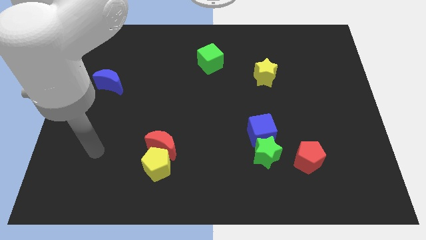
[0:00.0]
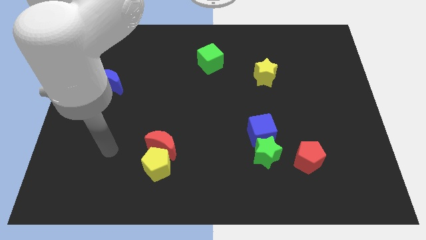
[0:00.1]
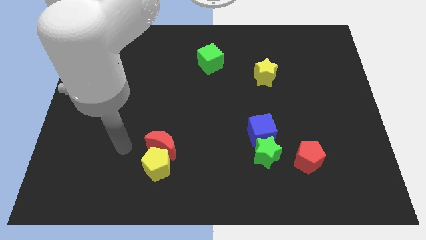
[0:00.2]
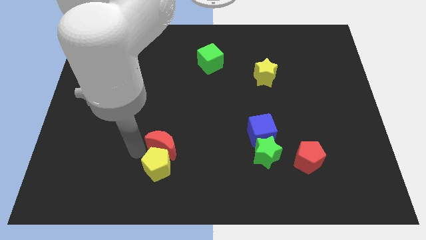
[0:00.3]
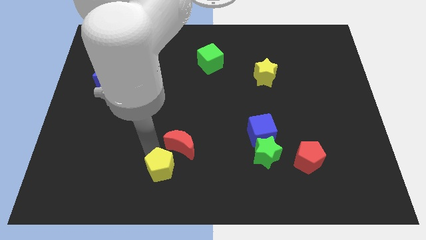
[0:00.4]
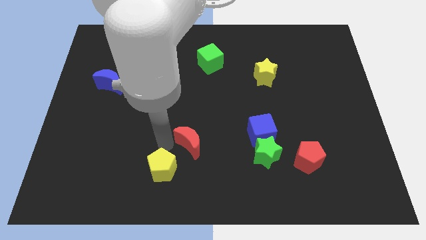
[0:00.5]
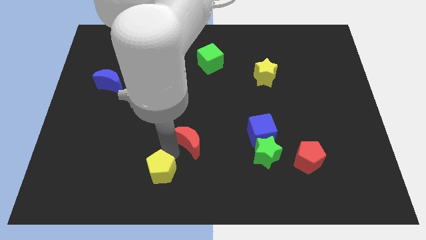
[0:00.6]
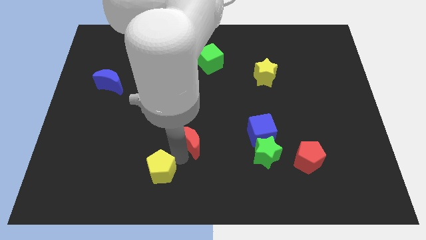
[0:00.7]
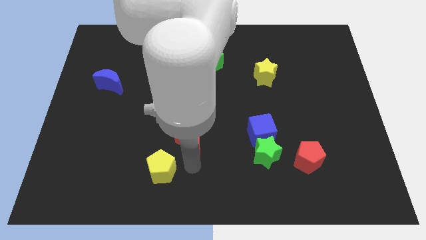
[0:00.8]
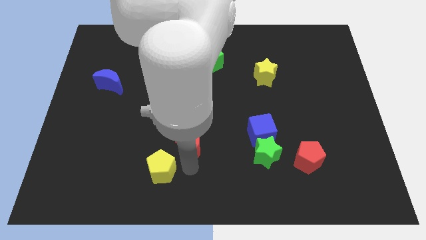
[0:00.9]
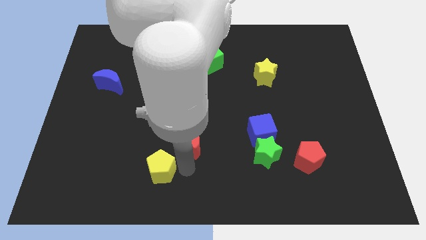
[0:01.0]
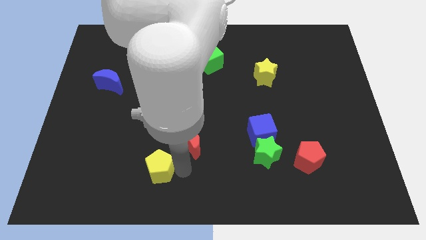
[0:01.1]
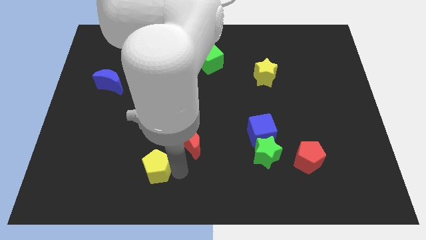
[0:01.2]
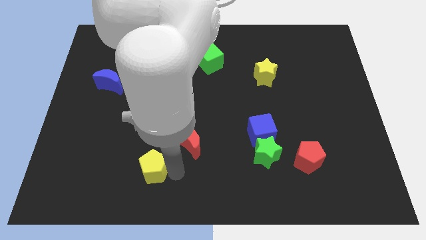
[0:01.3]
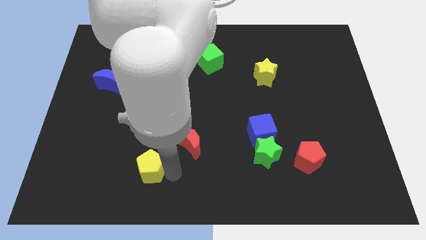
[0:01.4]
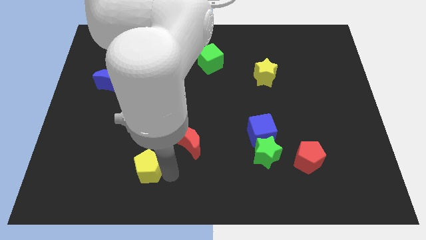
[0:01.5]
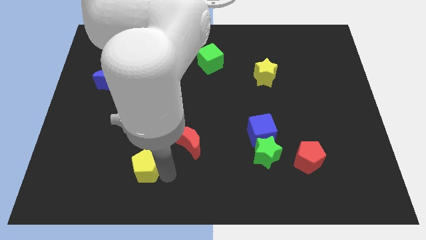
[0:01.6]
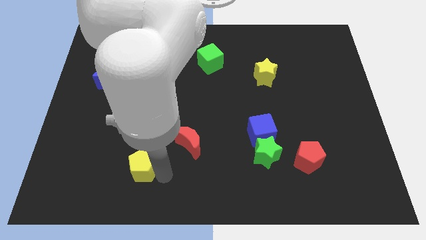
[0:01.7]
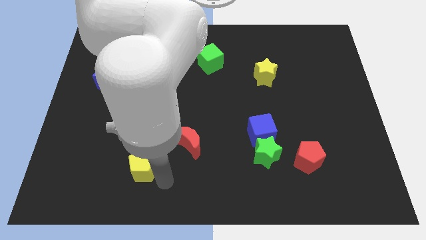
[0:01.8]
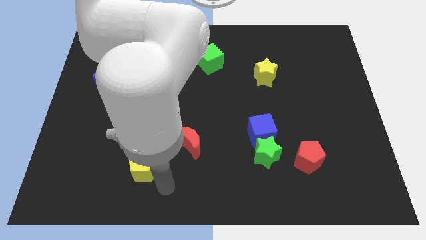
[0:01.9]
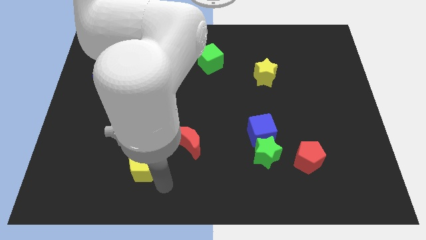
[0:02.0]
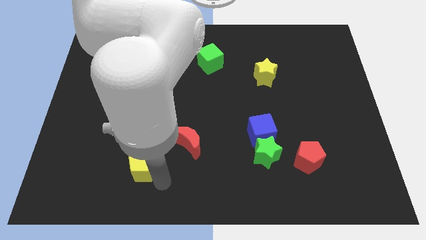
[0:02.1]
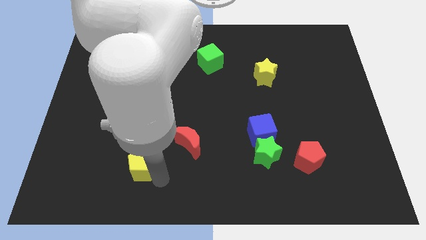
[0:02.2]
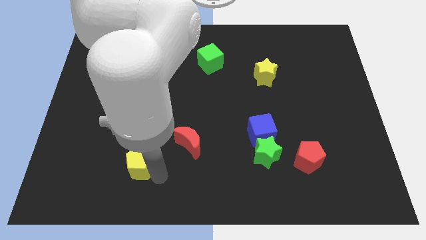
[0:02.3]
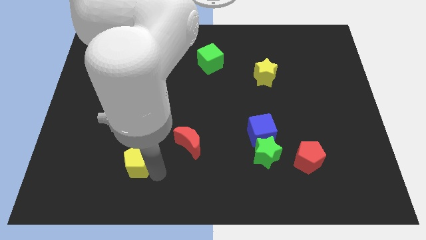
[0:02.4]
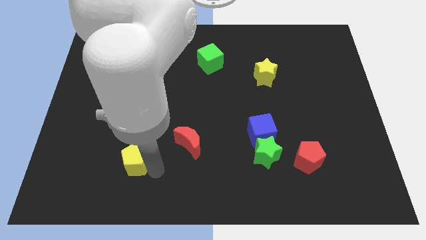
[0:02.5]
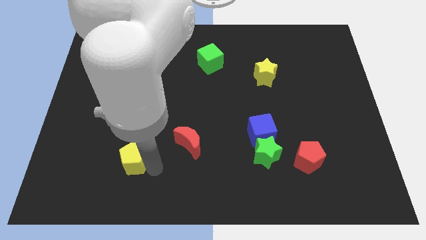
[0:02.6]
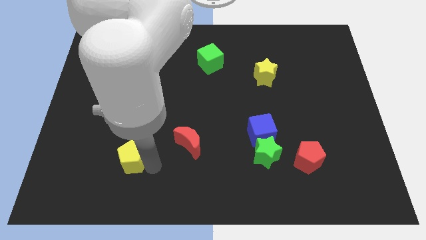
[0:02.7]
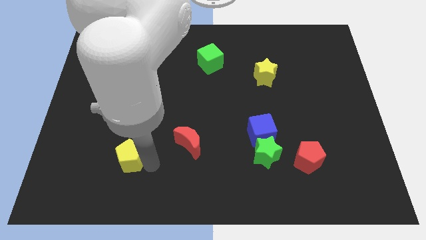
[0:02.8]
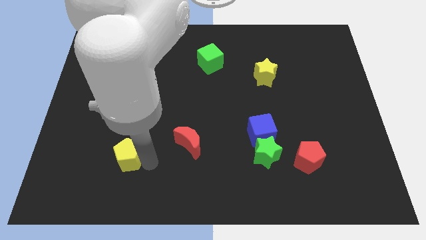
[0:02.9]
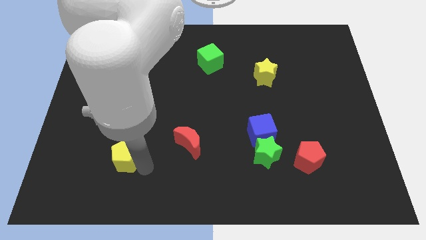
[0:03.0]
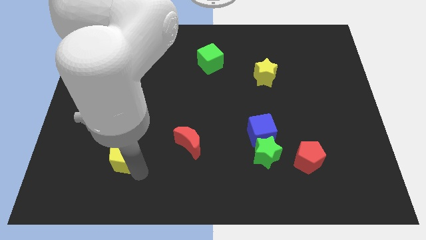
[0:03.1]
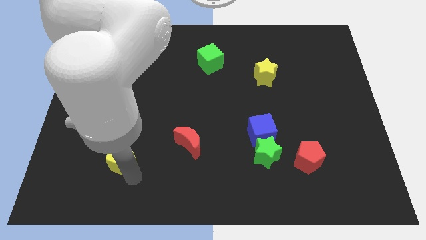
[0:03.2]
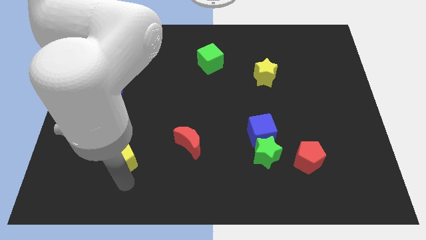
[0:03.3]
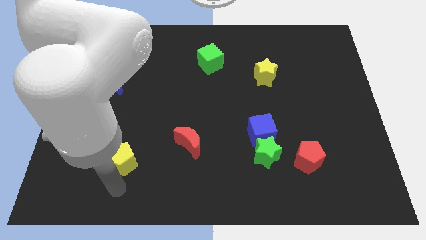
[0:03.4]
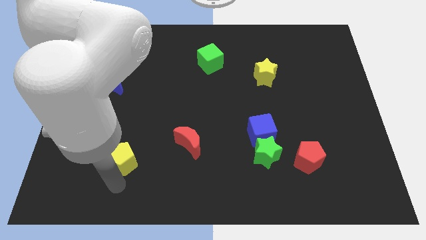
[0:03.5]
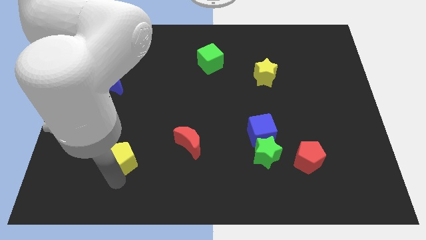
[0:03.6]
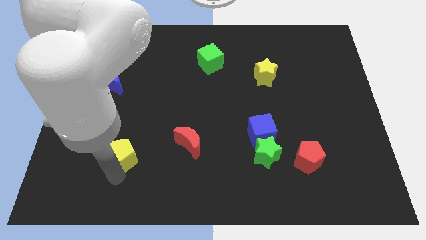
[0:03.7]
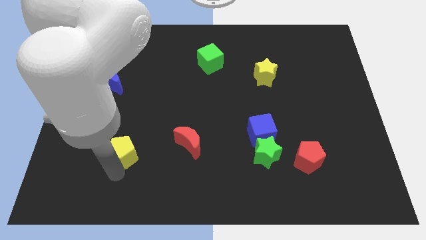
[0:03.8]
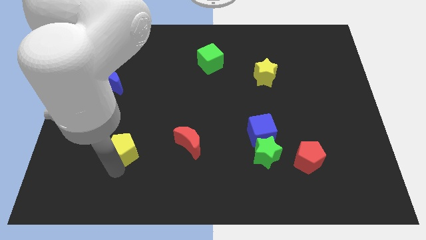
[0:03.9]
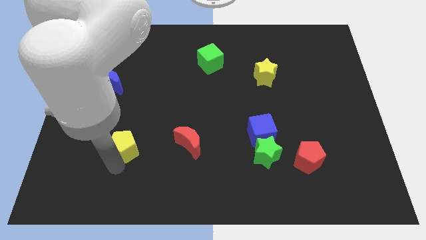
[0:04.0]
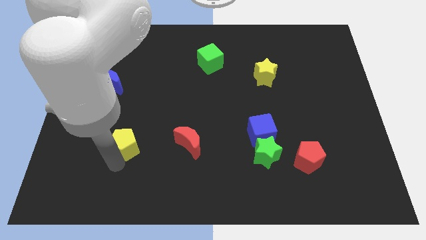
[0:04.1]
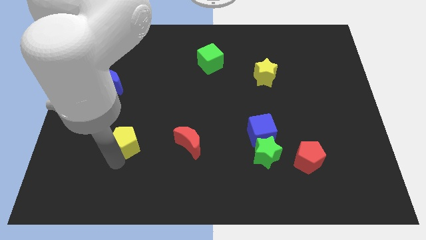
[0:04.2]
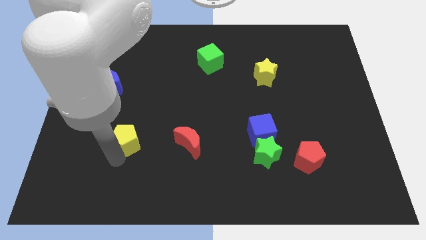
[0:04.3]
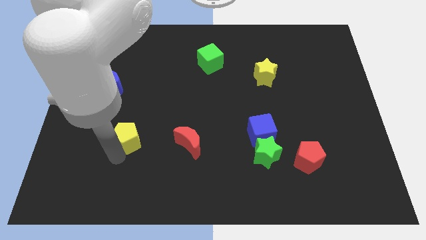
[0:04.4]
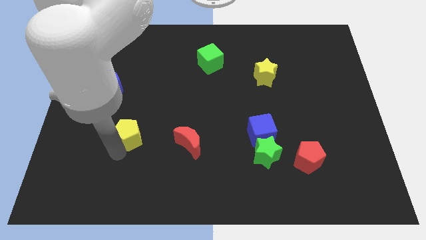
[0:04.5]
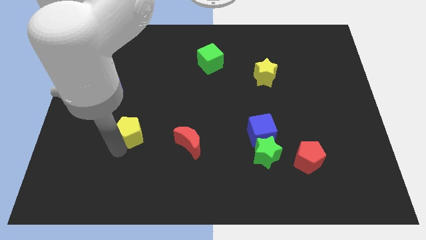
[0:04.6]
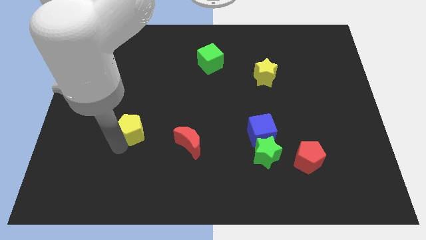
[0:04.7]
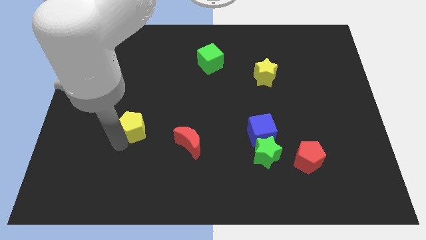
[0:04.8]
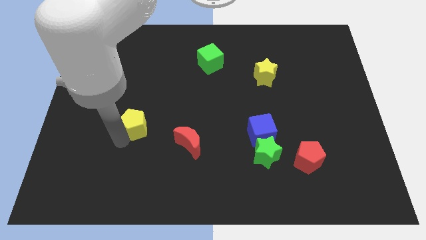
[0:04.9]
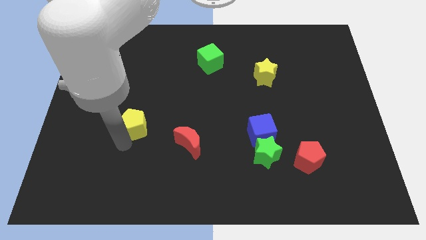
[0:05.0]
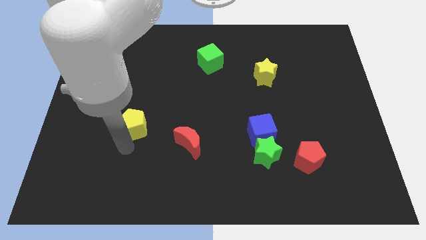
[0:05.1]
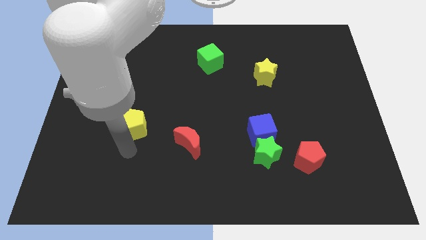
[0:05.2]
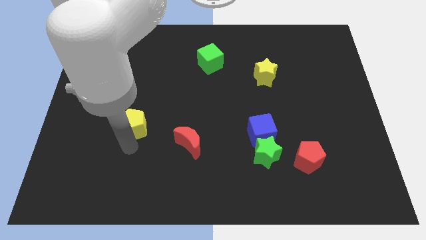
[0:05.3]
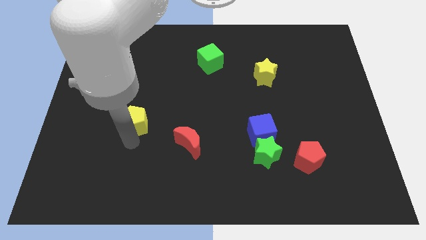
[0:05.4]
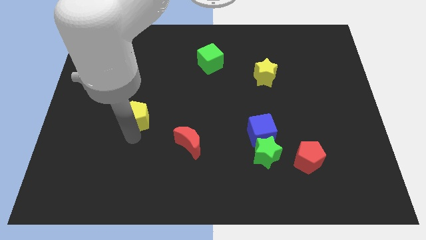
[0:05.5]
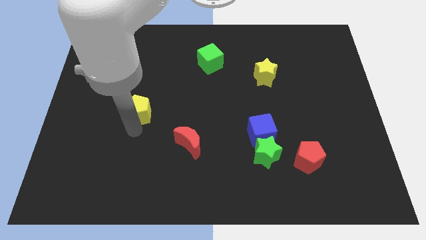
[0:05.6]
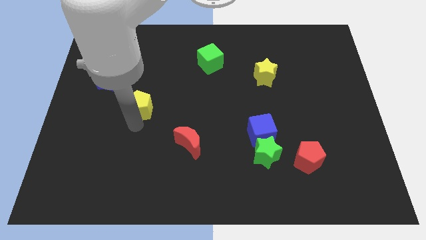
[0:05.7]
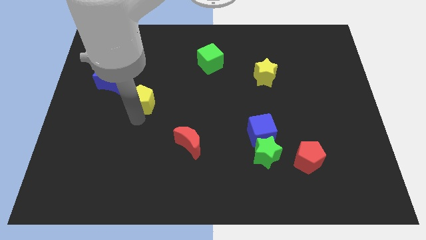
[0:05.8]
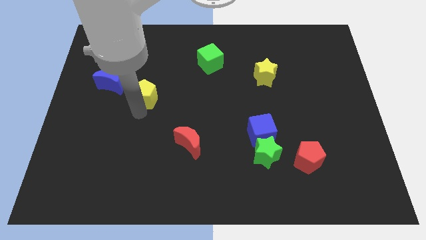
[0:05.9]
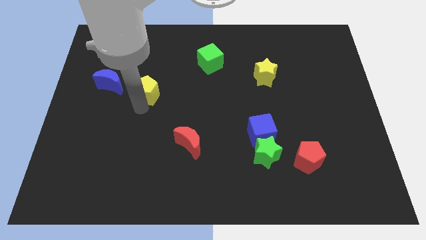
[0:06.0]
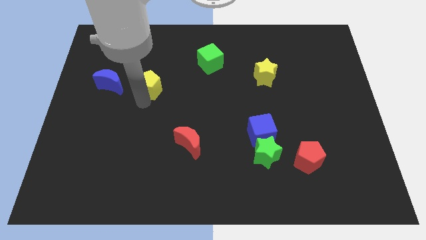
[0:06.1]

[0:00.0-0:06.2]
push the yellow pentagon upwards

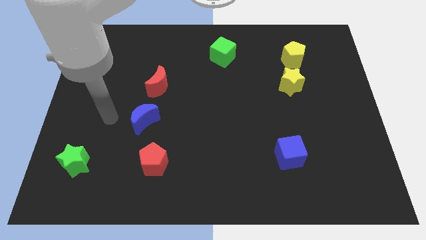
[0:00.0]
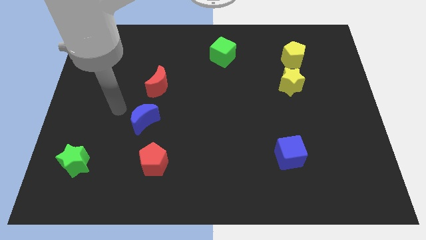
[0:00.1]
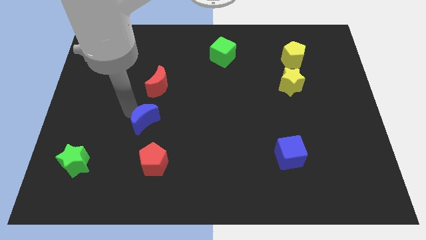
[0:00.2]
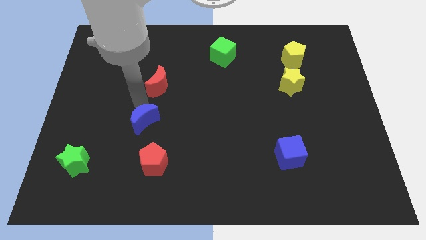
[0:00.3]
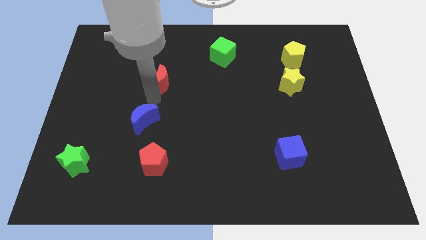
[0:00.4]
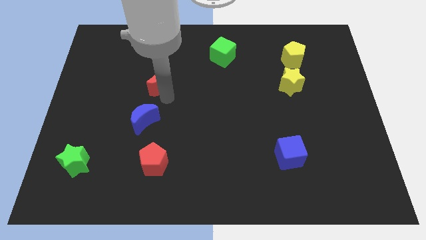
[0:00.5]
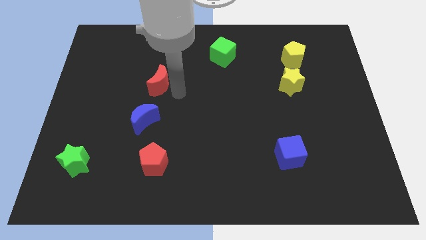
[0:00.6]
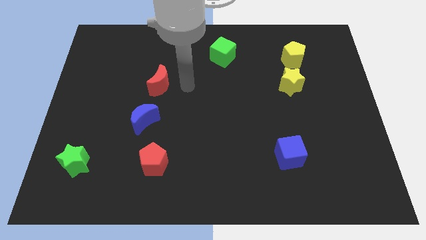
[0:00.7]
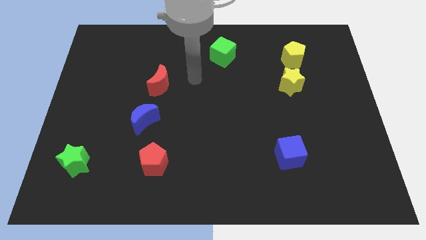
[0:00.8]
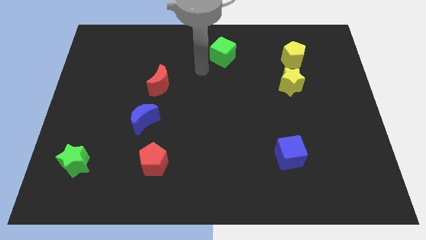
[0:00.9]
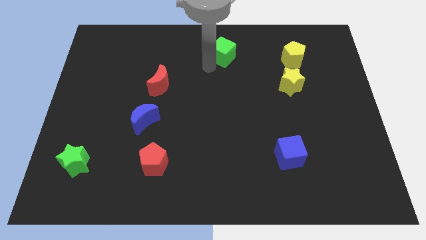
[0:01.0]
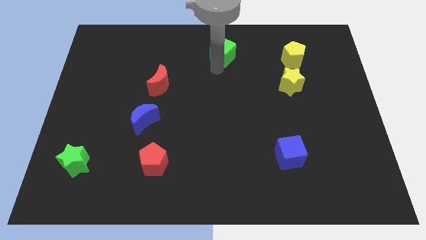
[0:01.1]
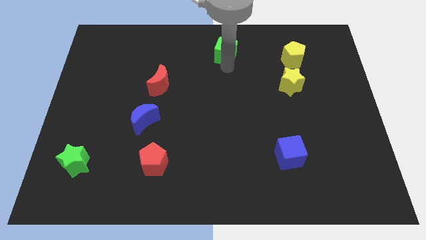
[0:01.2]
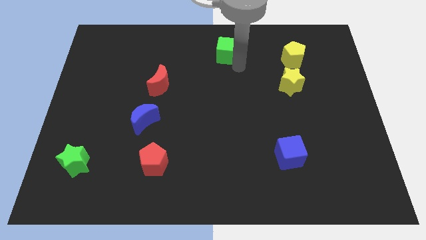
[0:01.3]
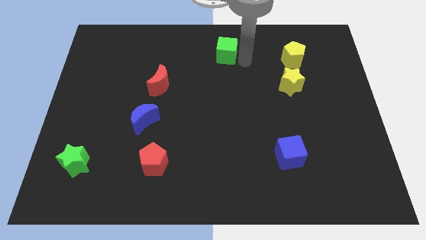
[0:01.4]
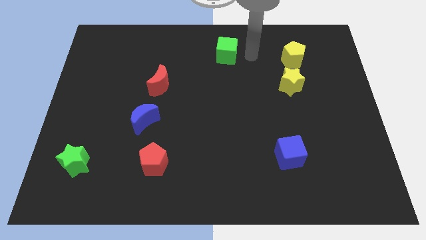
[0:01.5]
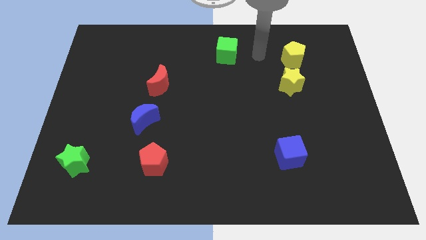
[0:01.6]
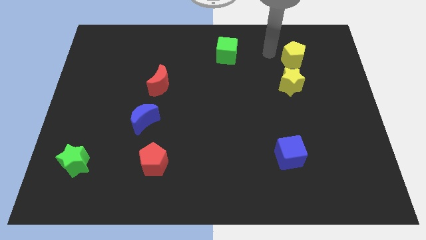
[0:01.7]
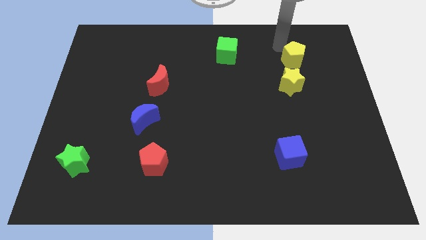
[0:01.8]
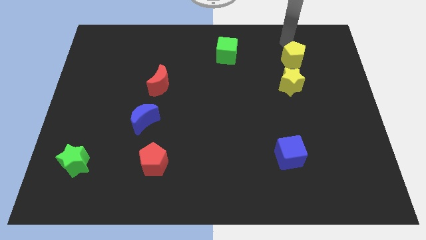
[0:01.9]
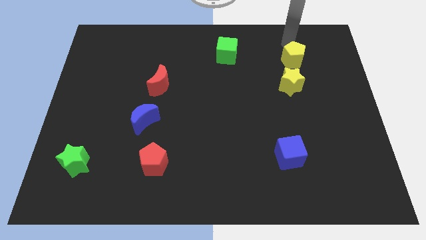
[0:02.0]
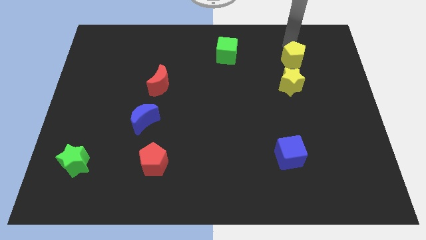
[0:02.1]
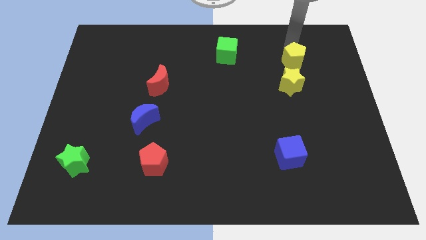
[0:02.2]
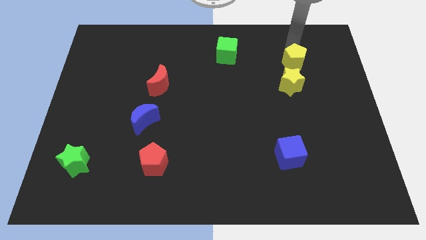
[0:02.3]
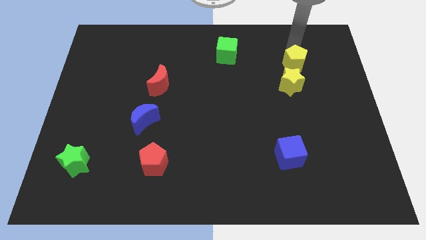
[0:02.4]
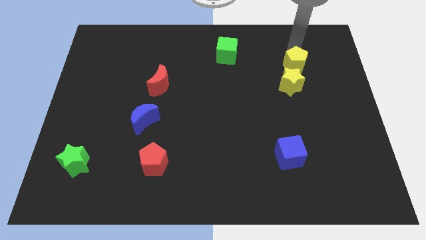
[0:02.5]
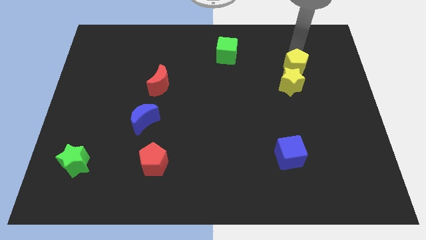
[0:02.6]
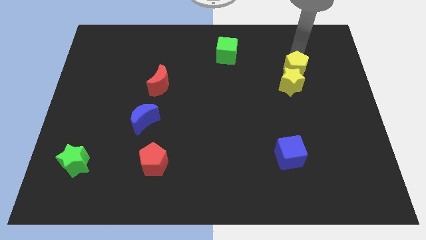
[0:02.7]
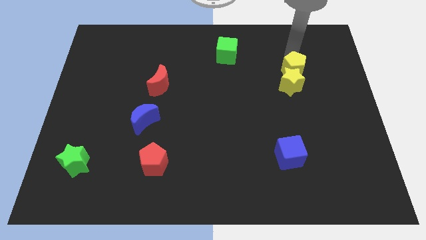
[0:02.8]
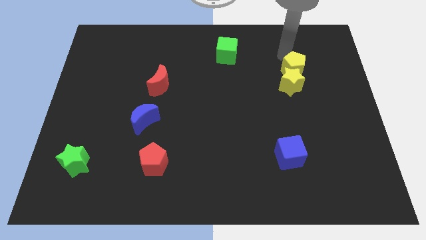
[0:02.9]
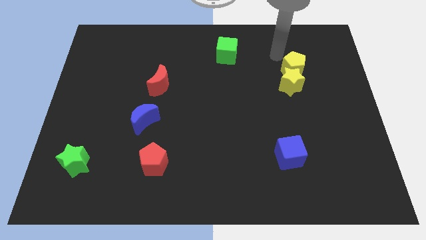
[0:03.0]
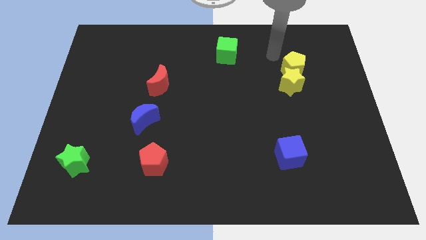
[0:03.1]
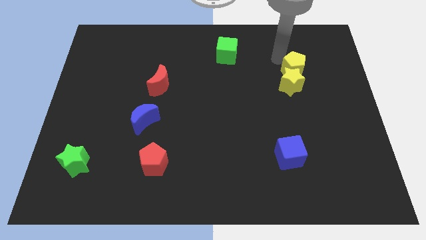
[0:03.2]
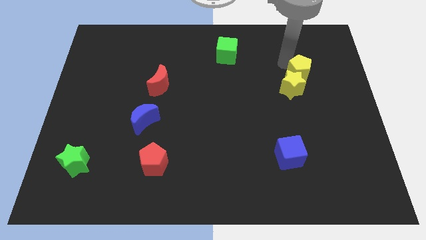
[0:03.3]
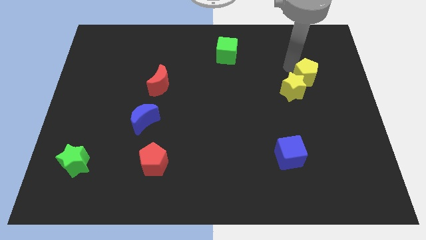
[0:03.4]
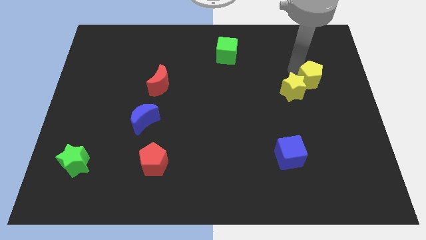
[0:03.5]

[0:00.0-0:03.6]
slightly slide the yellow pentagon downwards
